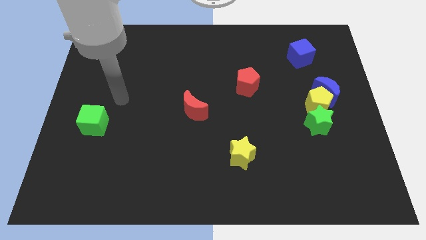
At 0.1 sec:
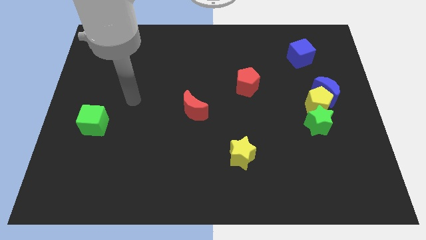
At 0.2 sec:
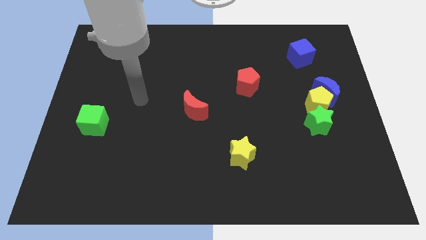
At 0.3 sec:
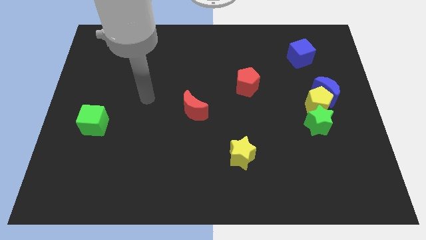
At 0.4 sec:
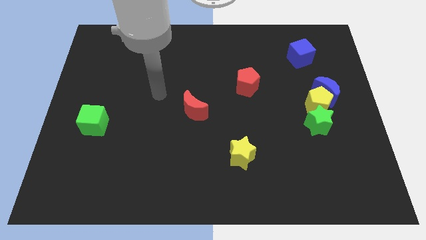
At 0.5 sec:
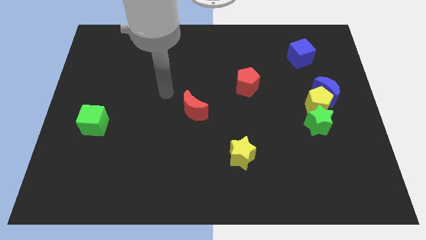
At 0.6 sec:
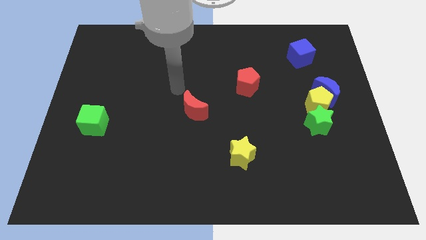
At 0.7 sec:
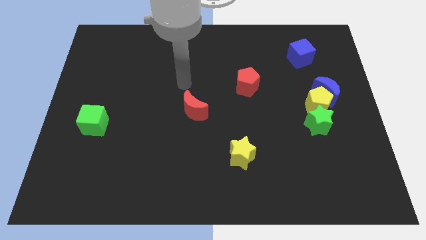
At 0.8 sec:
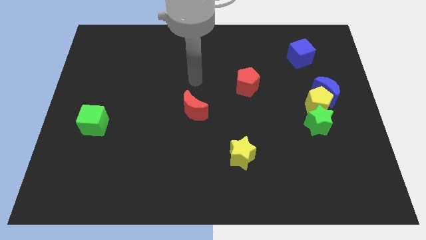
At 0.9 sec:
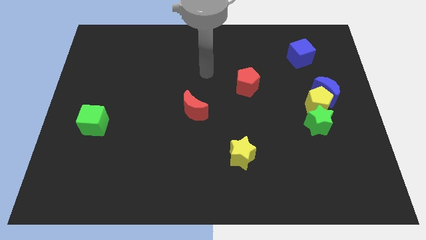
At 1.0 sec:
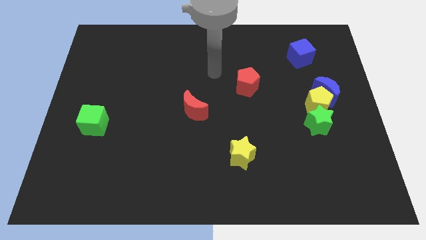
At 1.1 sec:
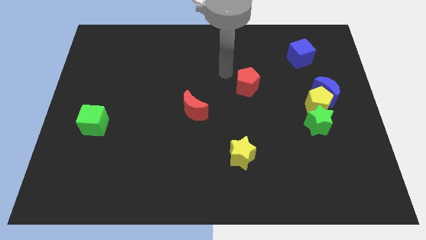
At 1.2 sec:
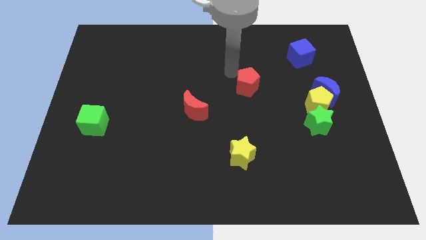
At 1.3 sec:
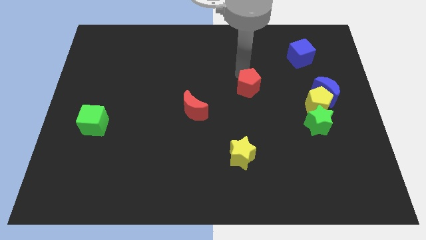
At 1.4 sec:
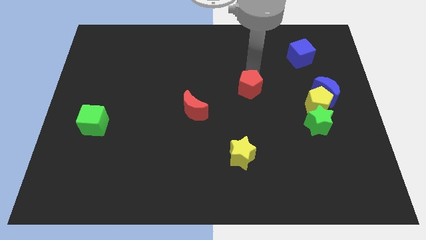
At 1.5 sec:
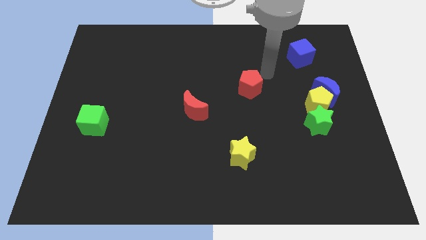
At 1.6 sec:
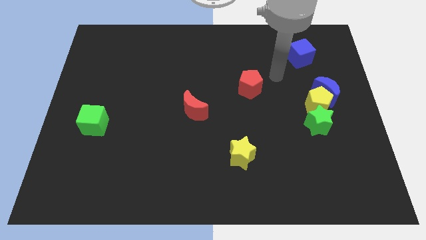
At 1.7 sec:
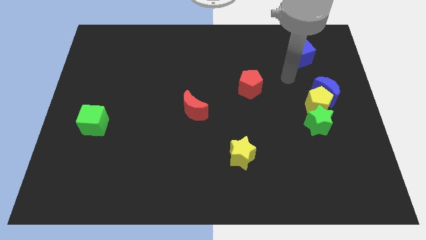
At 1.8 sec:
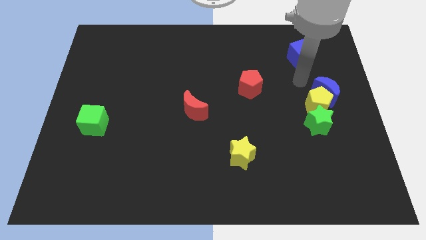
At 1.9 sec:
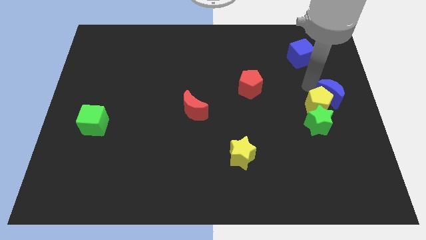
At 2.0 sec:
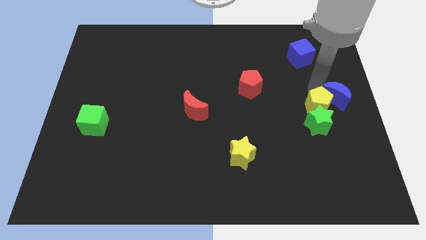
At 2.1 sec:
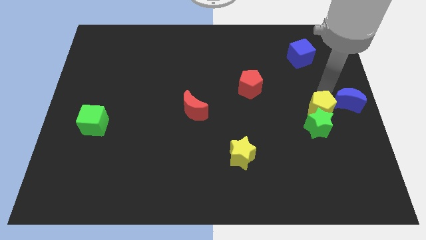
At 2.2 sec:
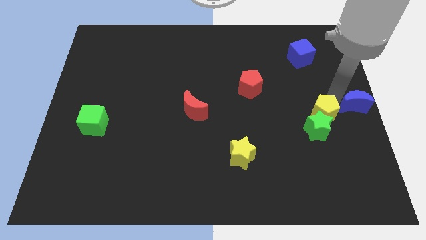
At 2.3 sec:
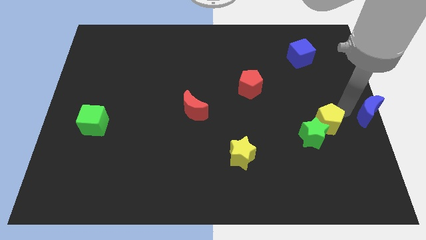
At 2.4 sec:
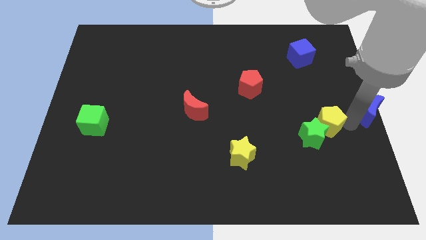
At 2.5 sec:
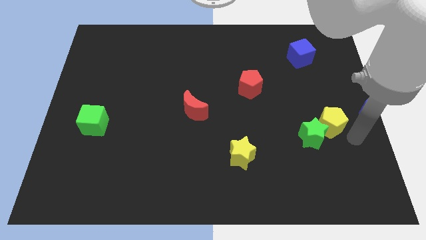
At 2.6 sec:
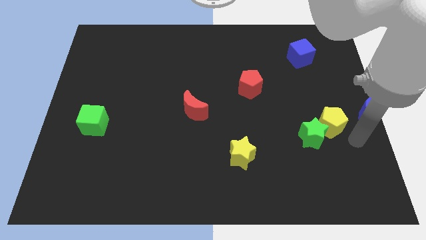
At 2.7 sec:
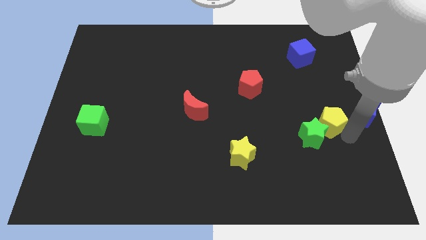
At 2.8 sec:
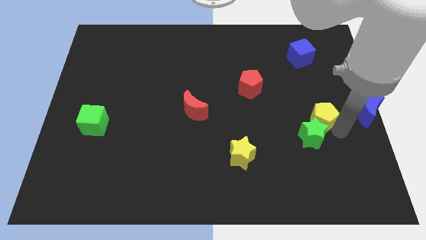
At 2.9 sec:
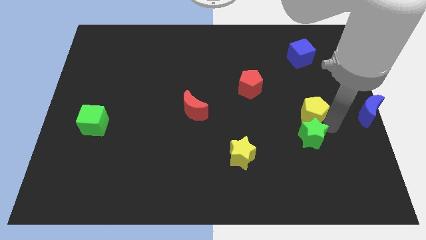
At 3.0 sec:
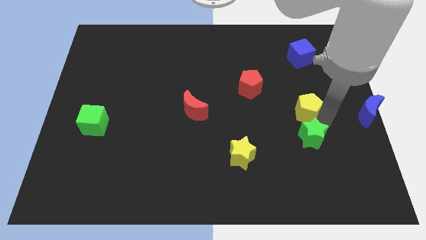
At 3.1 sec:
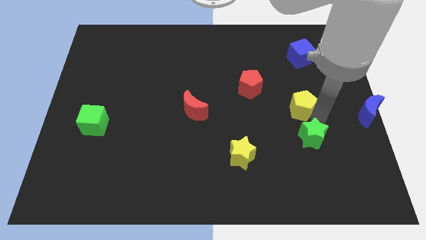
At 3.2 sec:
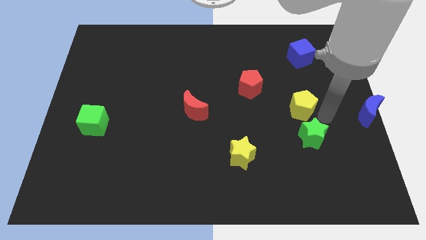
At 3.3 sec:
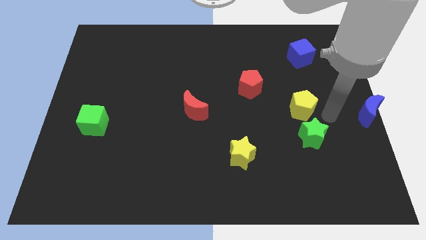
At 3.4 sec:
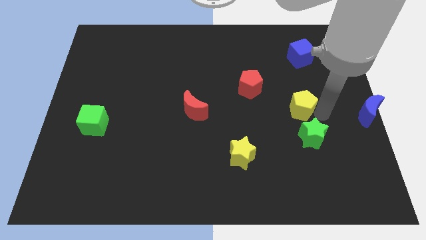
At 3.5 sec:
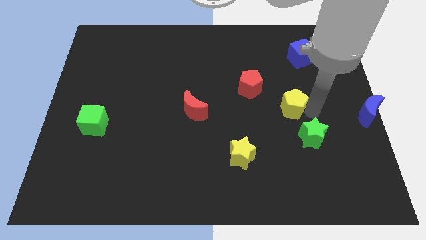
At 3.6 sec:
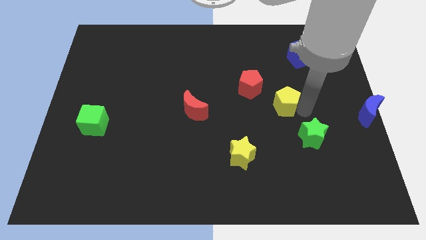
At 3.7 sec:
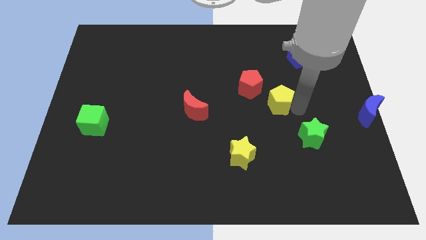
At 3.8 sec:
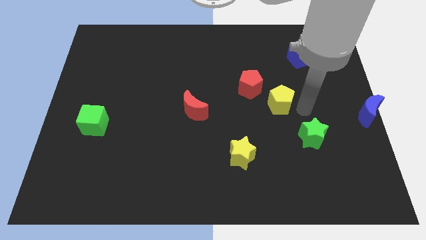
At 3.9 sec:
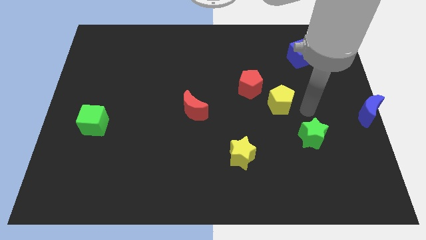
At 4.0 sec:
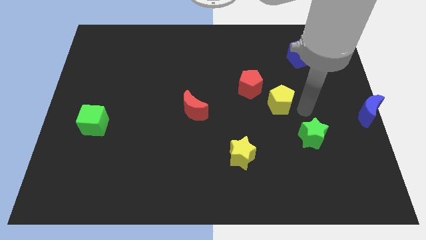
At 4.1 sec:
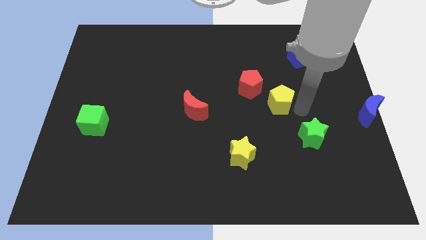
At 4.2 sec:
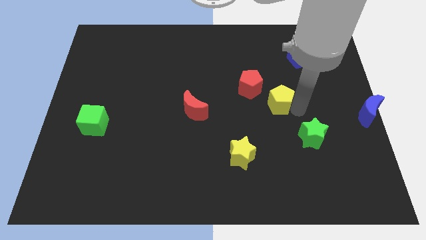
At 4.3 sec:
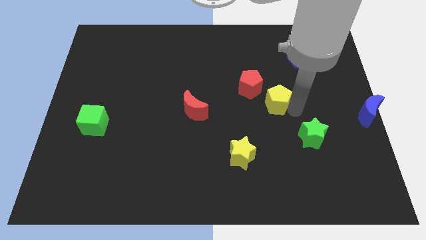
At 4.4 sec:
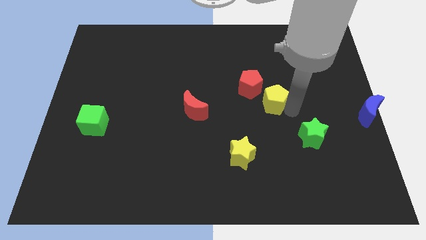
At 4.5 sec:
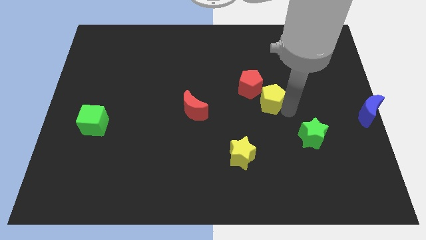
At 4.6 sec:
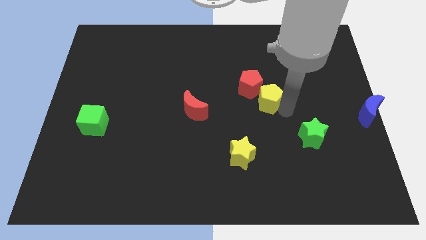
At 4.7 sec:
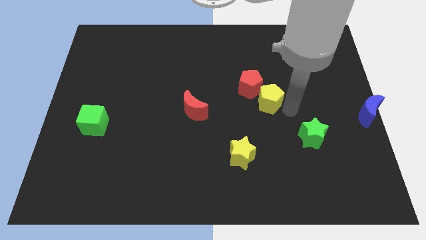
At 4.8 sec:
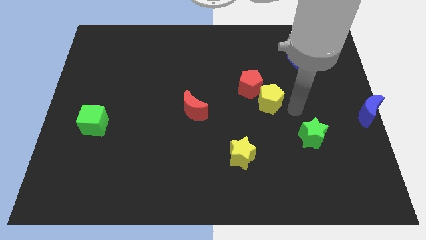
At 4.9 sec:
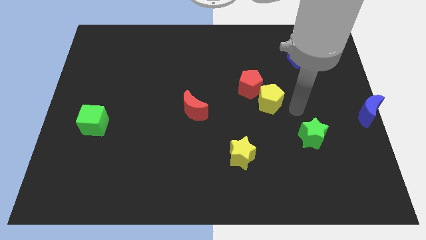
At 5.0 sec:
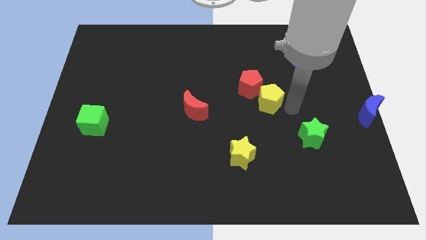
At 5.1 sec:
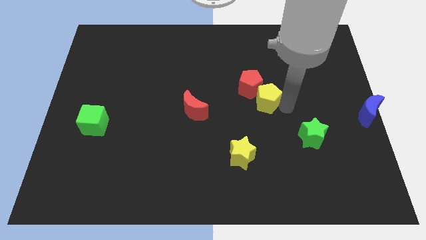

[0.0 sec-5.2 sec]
move the yellow pentagon to the middle

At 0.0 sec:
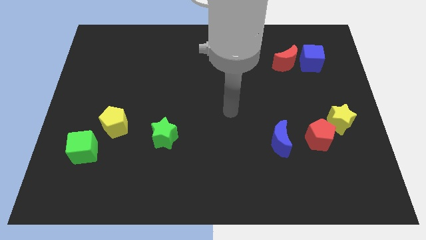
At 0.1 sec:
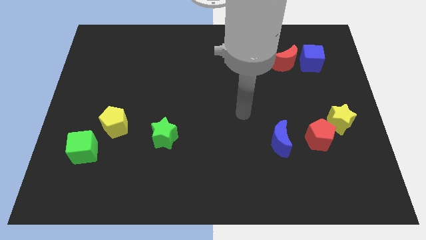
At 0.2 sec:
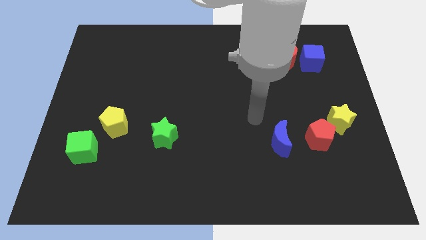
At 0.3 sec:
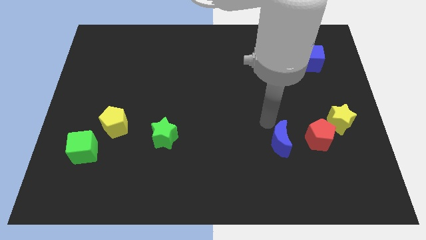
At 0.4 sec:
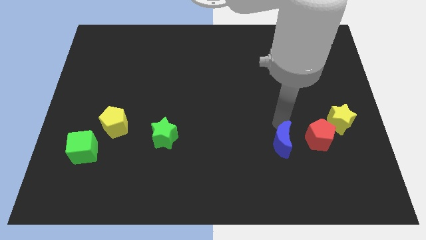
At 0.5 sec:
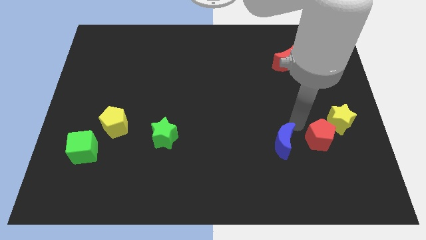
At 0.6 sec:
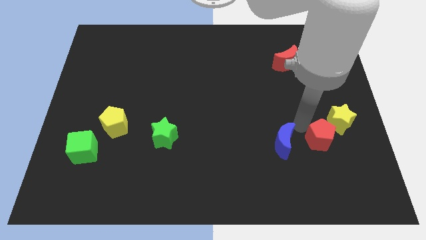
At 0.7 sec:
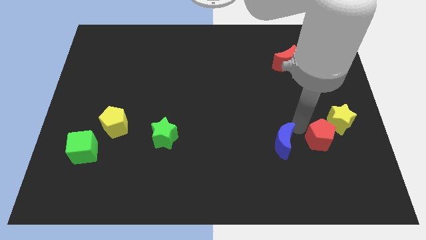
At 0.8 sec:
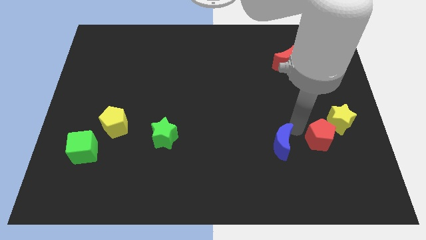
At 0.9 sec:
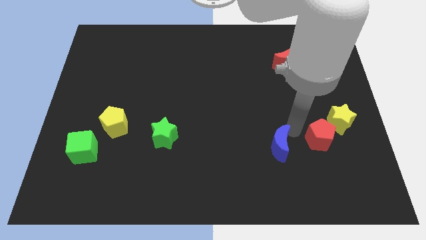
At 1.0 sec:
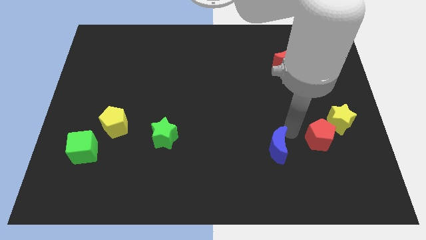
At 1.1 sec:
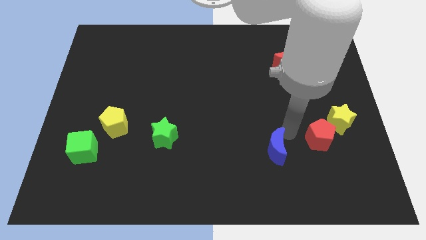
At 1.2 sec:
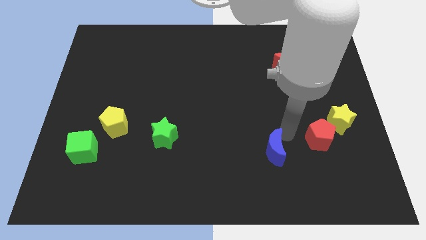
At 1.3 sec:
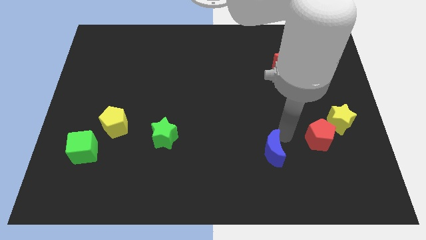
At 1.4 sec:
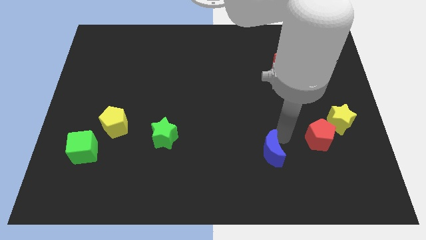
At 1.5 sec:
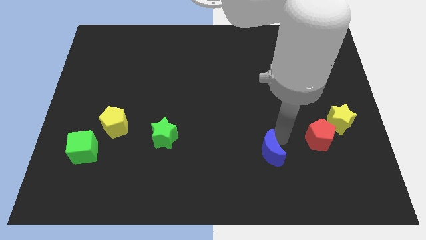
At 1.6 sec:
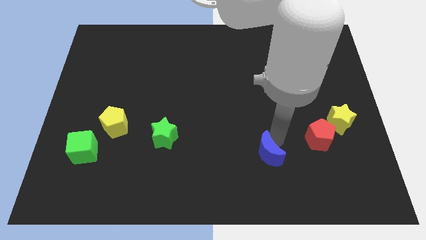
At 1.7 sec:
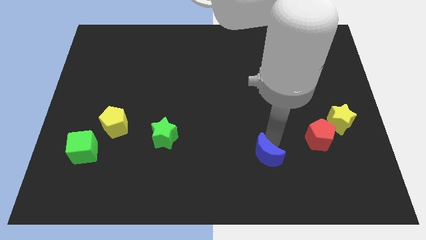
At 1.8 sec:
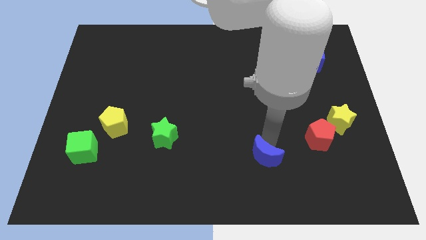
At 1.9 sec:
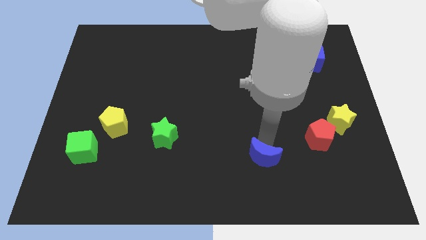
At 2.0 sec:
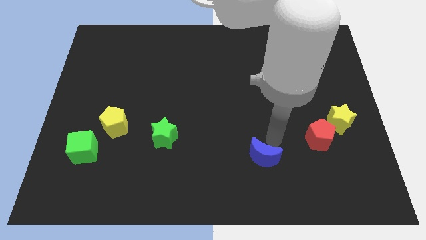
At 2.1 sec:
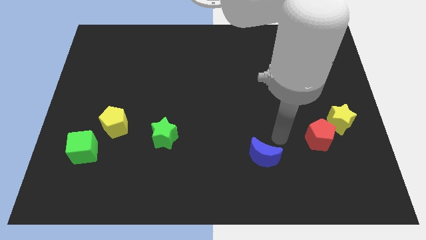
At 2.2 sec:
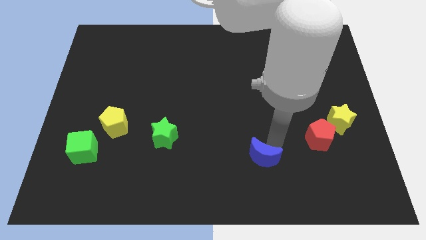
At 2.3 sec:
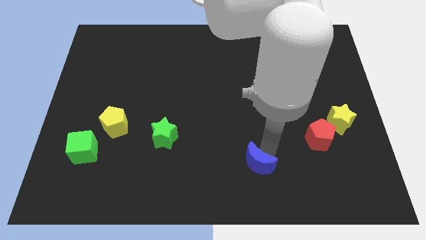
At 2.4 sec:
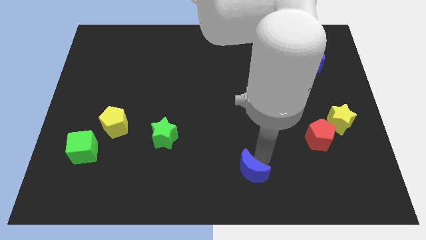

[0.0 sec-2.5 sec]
slide the blue moon to the bottom
